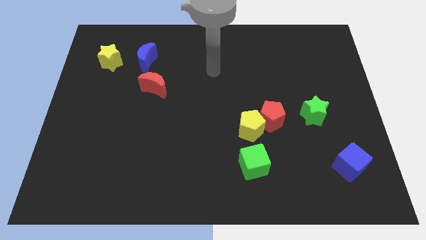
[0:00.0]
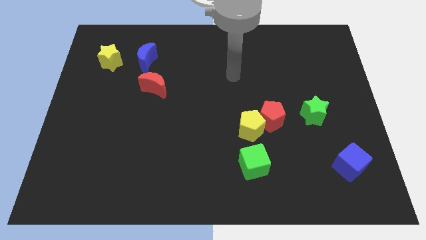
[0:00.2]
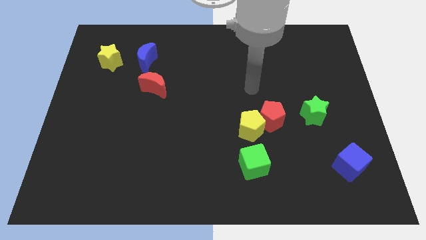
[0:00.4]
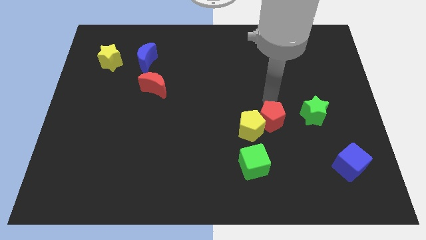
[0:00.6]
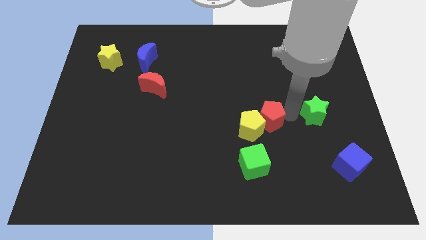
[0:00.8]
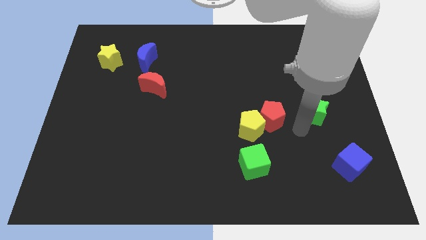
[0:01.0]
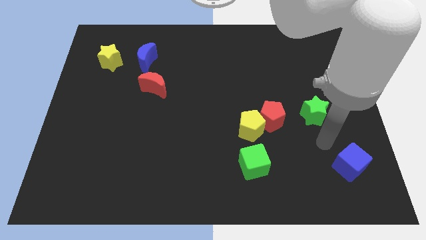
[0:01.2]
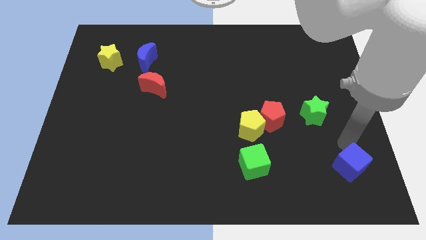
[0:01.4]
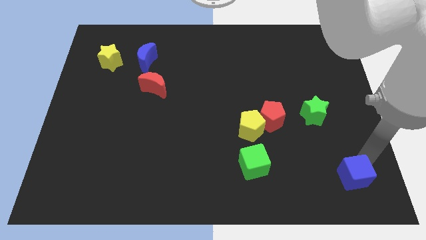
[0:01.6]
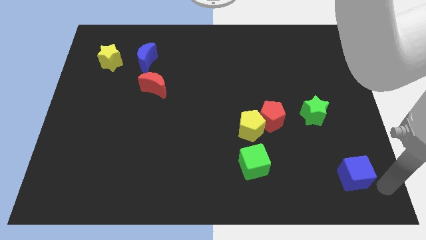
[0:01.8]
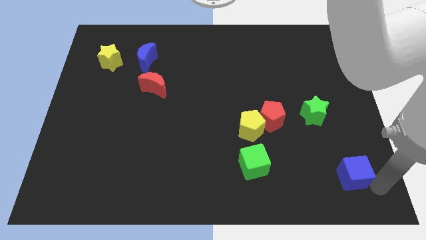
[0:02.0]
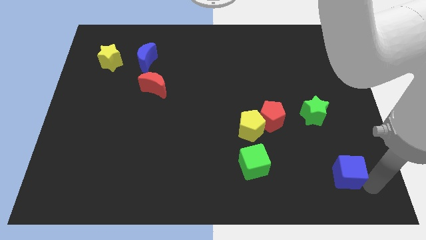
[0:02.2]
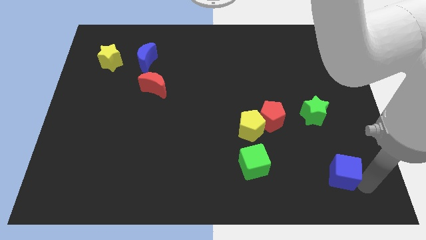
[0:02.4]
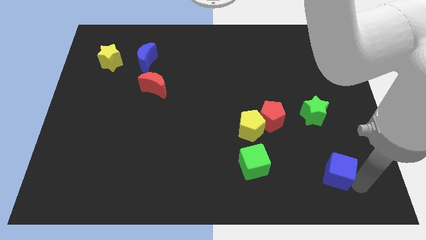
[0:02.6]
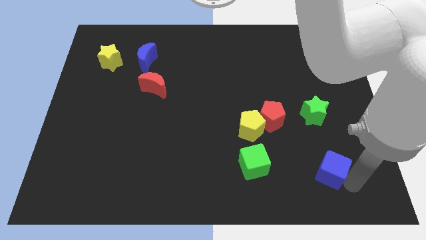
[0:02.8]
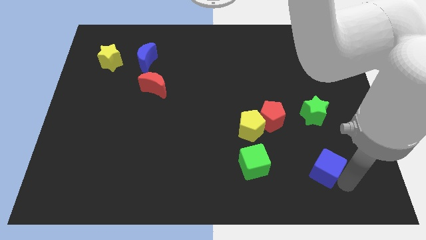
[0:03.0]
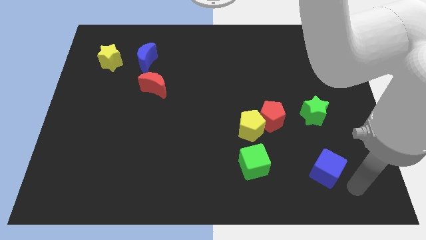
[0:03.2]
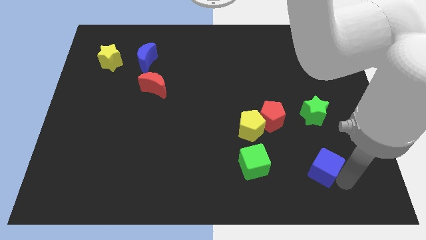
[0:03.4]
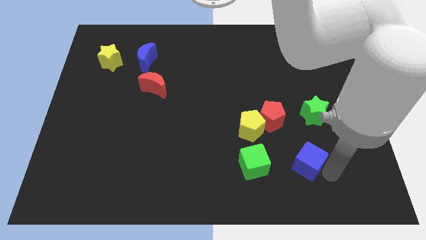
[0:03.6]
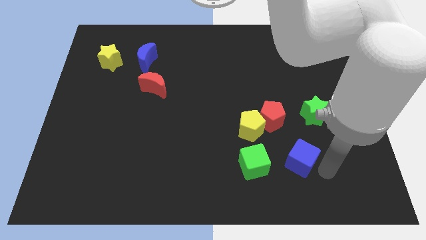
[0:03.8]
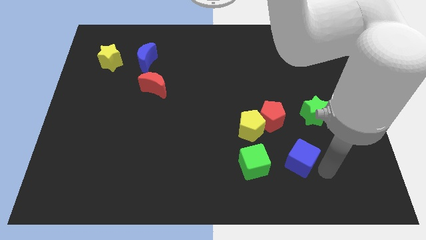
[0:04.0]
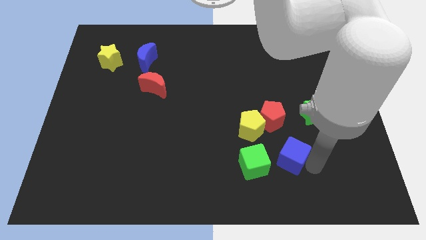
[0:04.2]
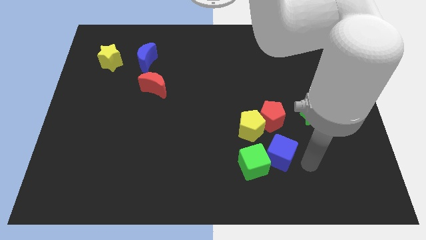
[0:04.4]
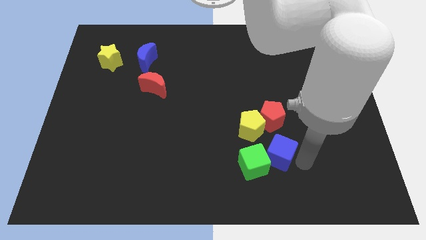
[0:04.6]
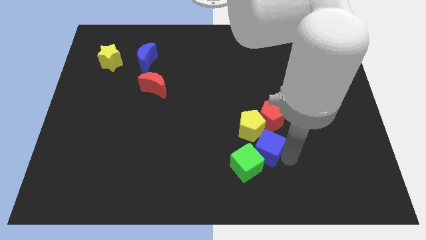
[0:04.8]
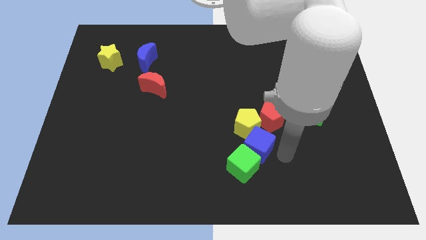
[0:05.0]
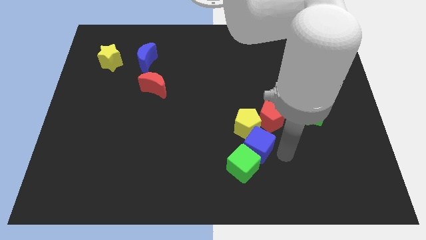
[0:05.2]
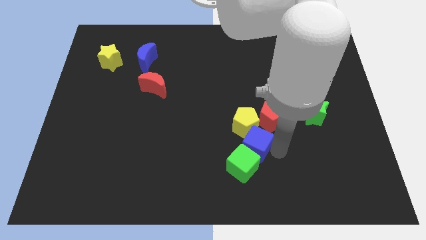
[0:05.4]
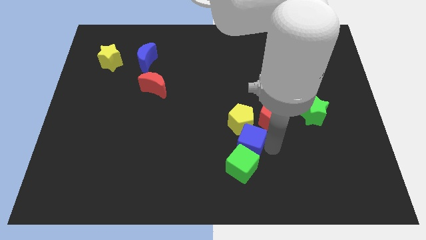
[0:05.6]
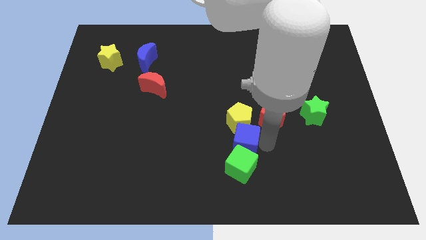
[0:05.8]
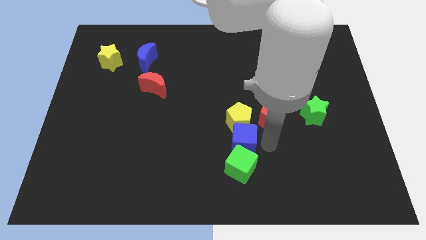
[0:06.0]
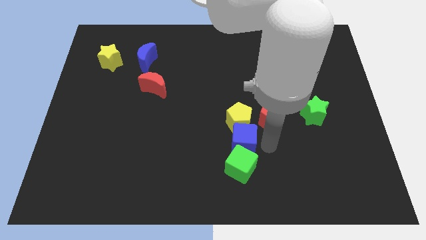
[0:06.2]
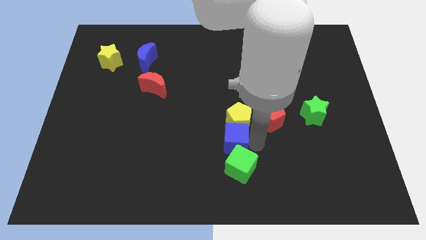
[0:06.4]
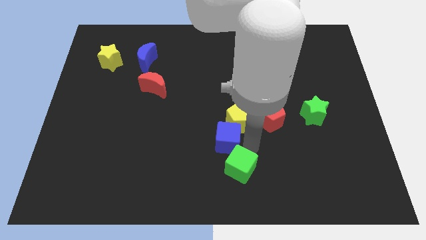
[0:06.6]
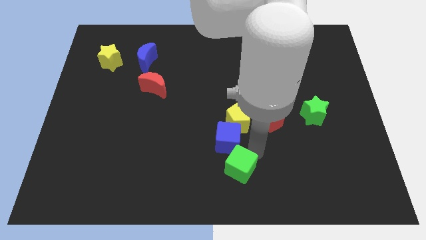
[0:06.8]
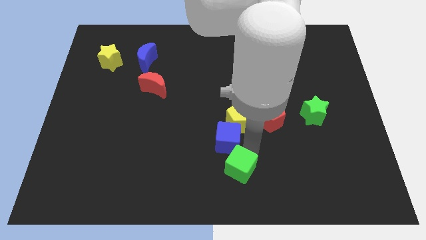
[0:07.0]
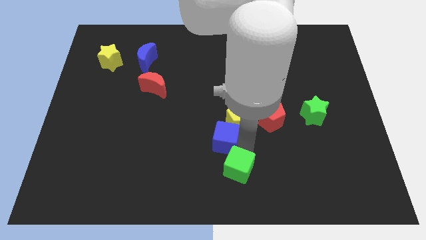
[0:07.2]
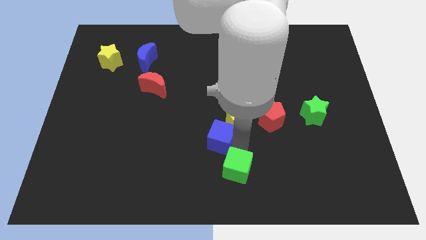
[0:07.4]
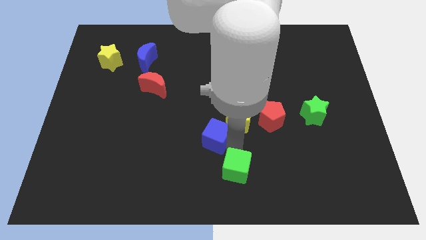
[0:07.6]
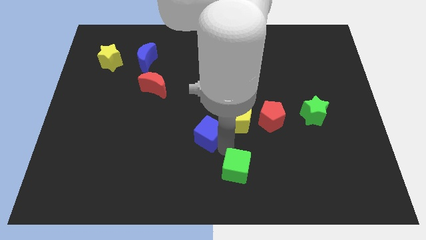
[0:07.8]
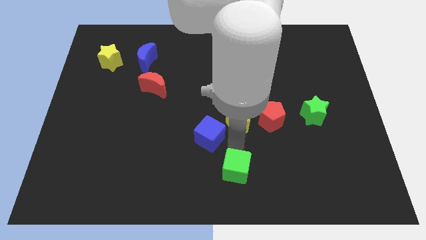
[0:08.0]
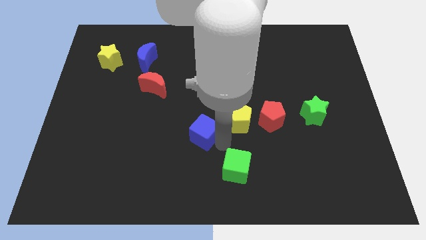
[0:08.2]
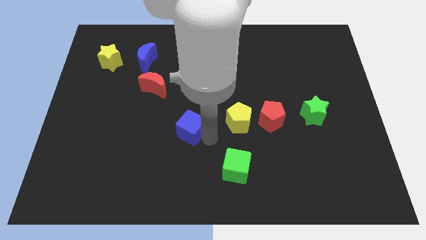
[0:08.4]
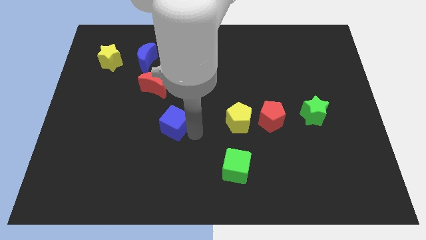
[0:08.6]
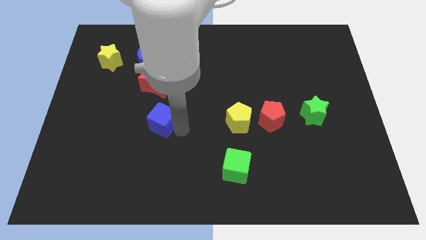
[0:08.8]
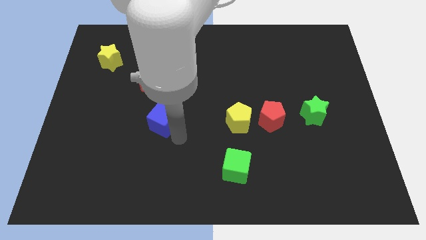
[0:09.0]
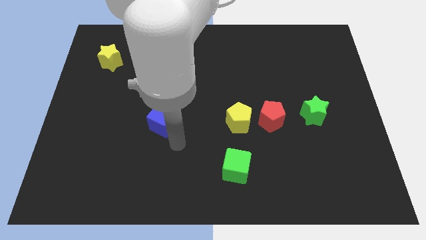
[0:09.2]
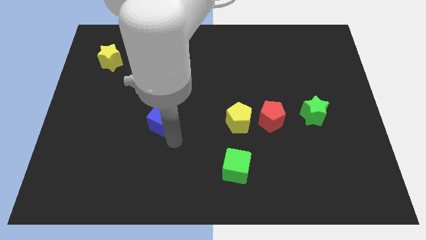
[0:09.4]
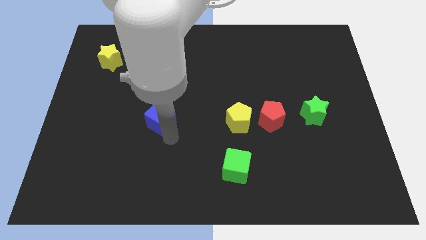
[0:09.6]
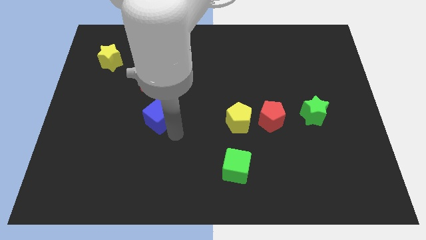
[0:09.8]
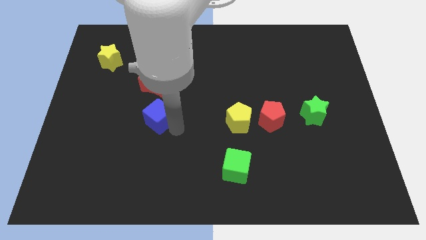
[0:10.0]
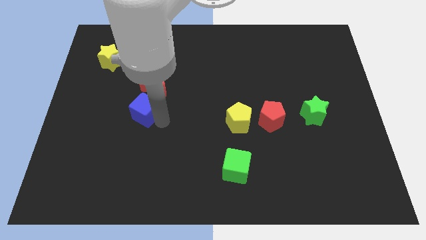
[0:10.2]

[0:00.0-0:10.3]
move the blue cube to the bottom left side of the red moon

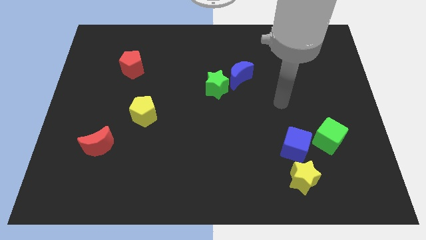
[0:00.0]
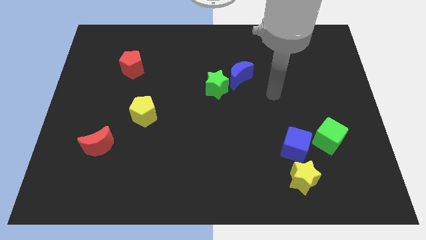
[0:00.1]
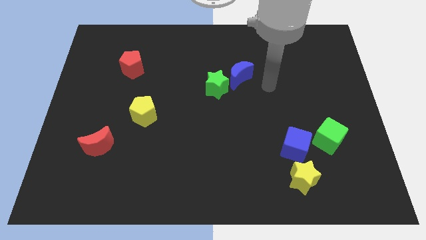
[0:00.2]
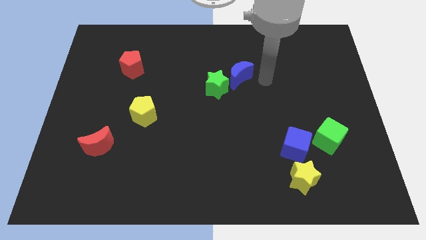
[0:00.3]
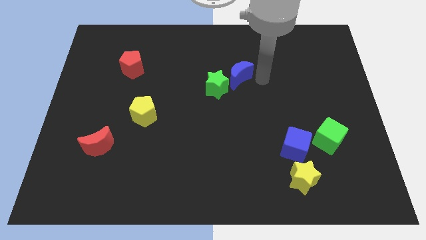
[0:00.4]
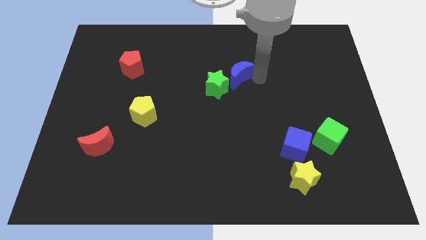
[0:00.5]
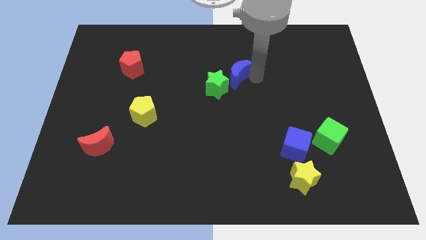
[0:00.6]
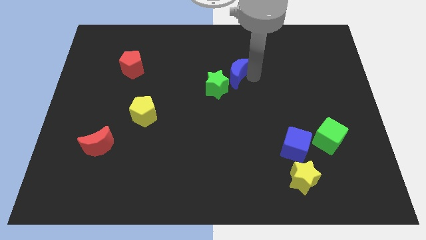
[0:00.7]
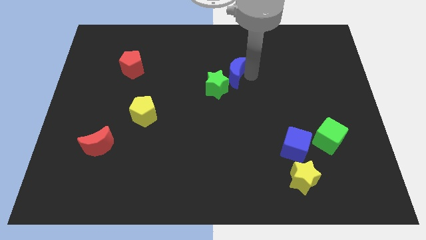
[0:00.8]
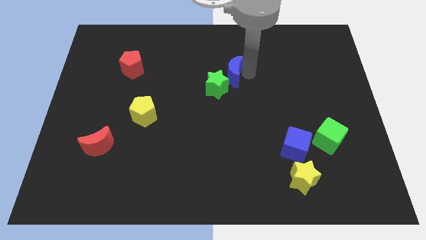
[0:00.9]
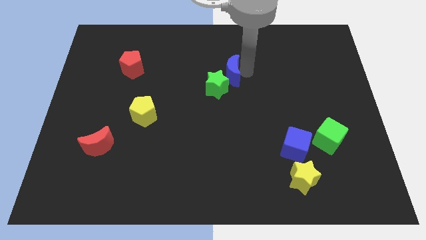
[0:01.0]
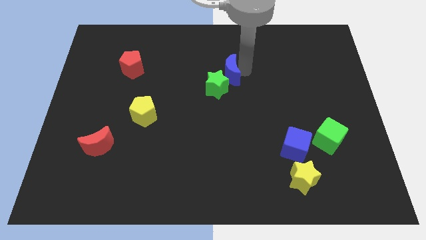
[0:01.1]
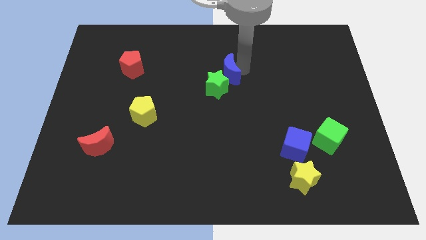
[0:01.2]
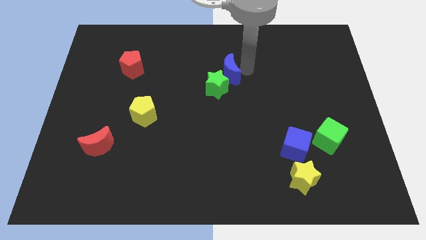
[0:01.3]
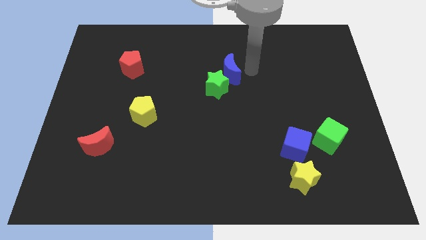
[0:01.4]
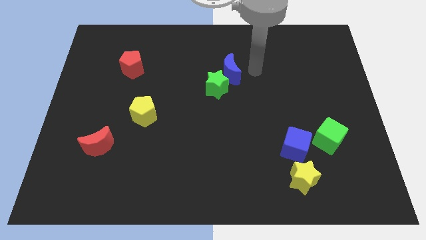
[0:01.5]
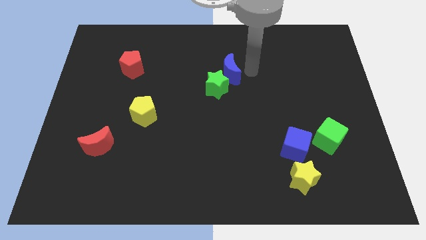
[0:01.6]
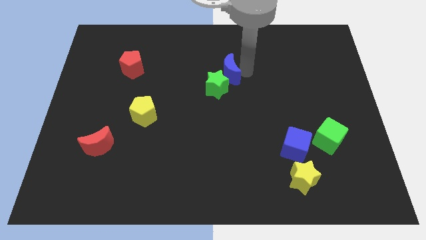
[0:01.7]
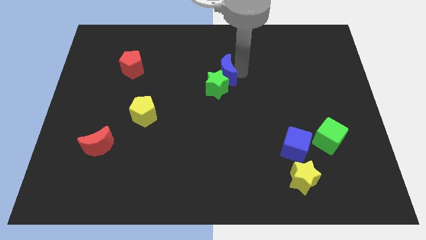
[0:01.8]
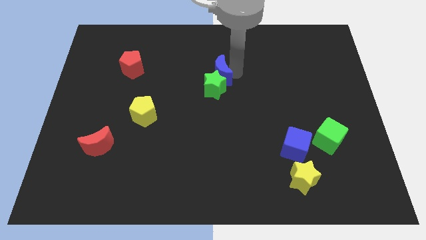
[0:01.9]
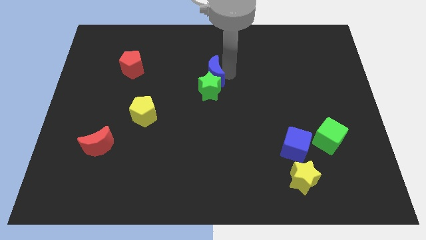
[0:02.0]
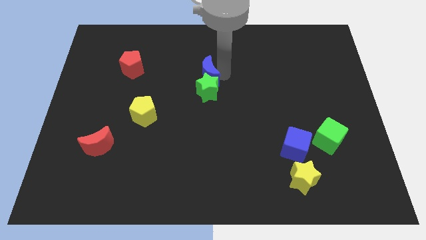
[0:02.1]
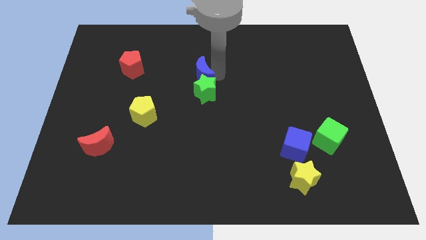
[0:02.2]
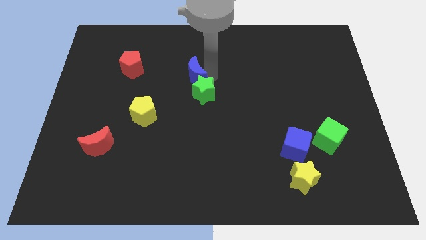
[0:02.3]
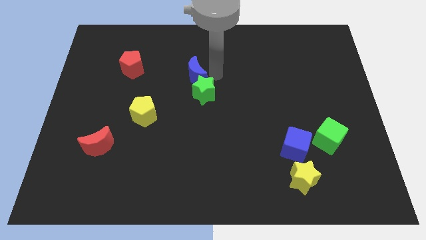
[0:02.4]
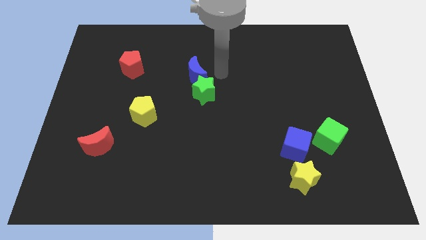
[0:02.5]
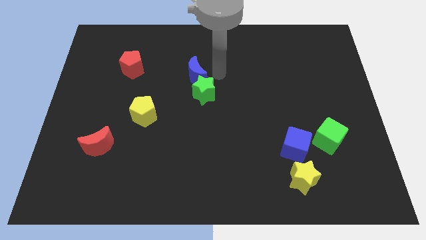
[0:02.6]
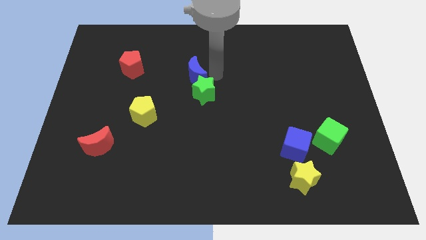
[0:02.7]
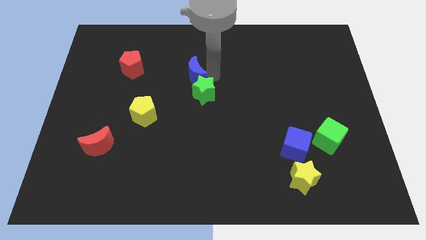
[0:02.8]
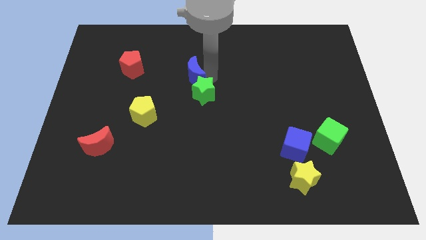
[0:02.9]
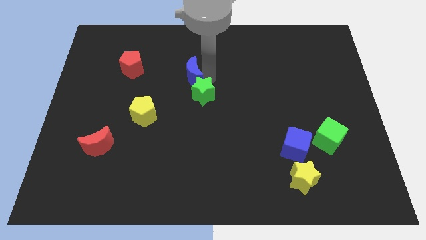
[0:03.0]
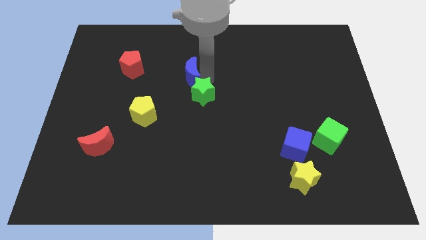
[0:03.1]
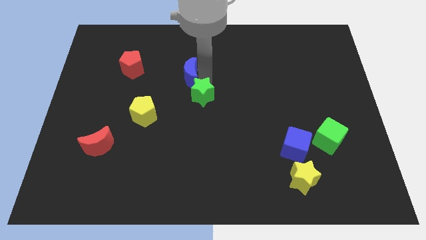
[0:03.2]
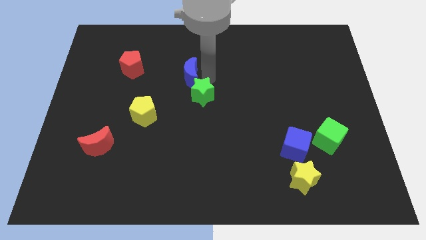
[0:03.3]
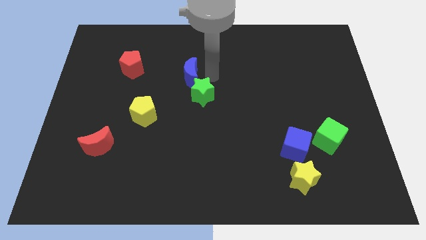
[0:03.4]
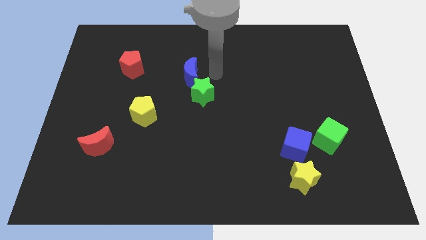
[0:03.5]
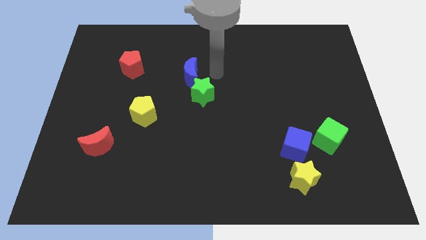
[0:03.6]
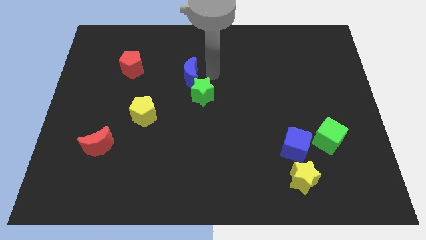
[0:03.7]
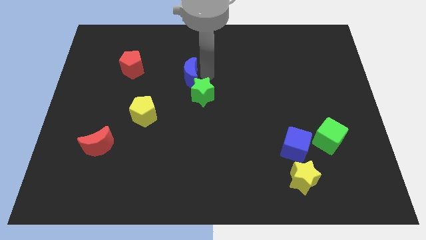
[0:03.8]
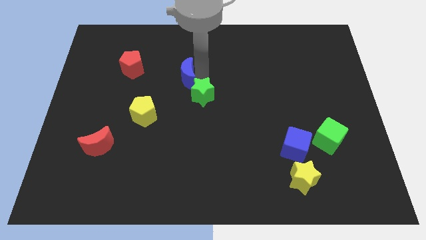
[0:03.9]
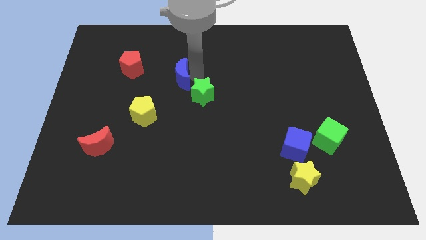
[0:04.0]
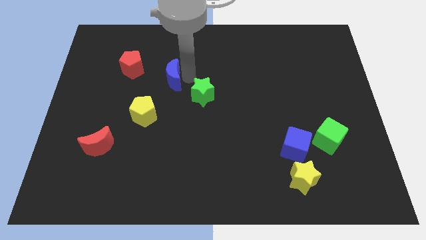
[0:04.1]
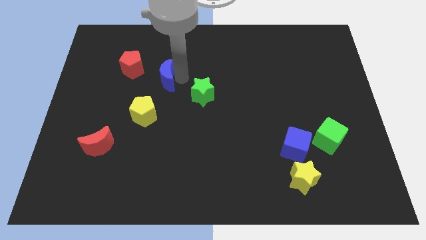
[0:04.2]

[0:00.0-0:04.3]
push the blue moon above the yellow pentagon
